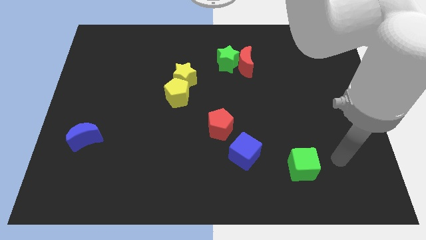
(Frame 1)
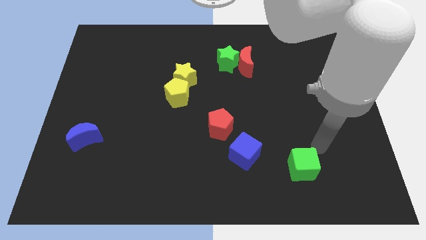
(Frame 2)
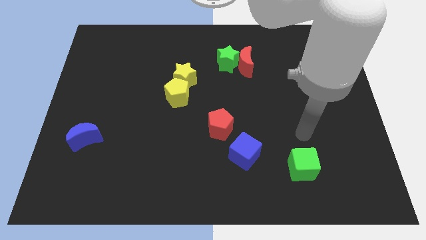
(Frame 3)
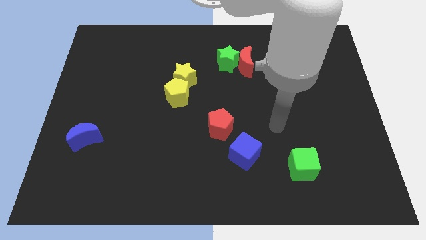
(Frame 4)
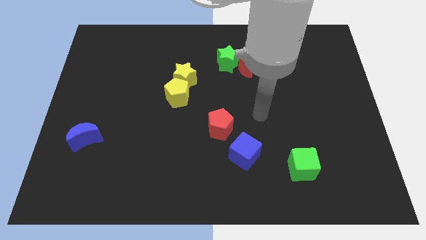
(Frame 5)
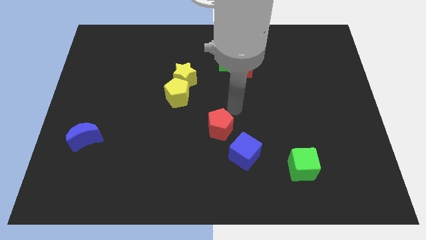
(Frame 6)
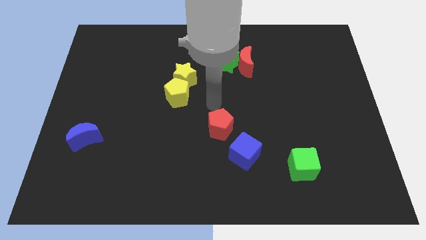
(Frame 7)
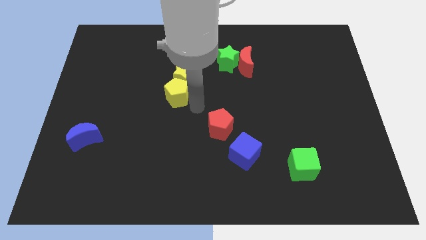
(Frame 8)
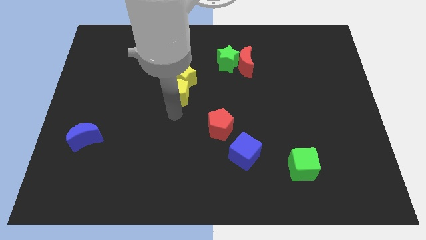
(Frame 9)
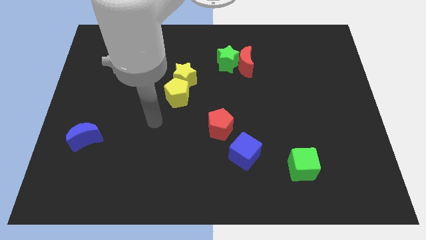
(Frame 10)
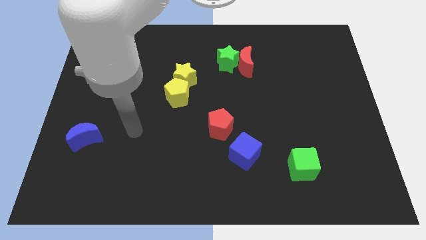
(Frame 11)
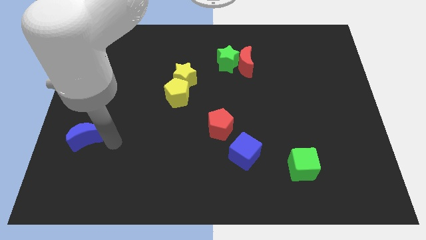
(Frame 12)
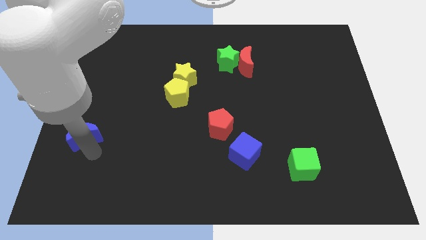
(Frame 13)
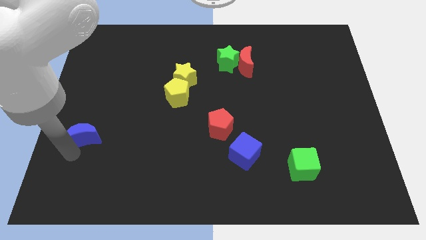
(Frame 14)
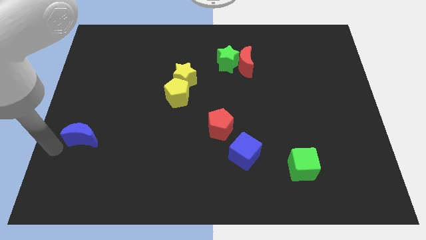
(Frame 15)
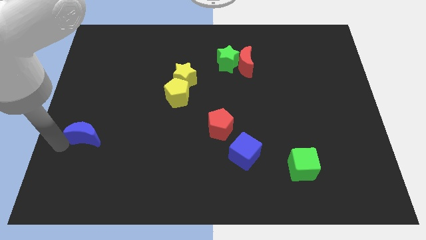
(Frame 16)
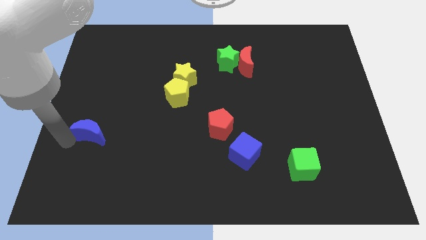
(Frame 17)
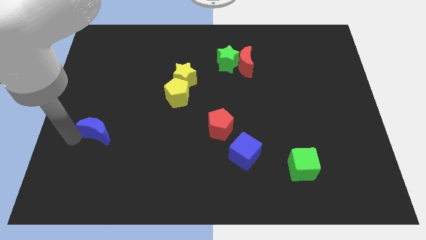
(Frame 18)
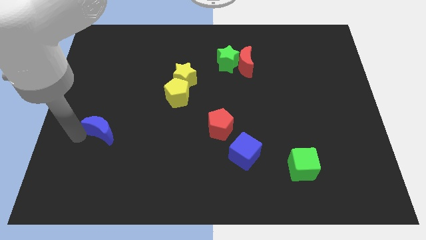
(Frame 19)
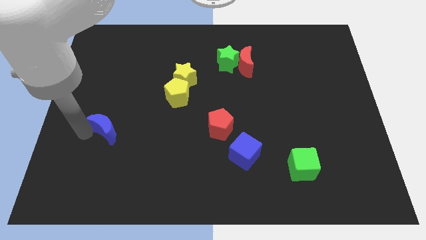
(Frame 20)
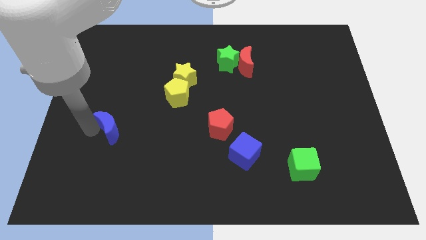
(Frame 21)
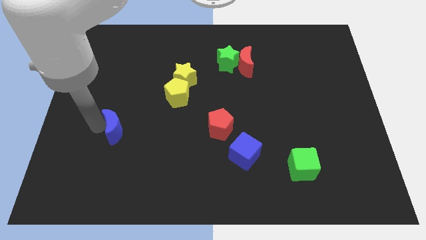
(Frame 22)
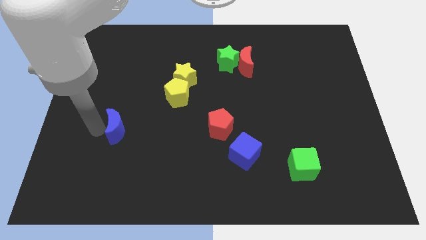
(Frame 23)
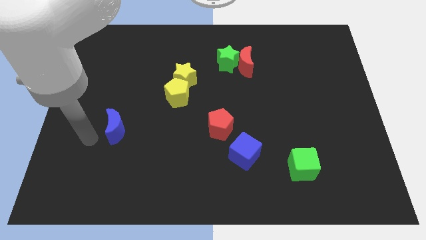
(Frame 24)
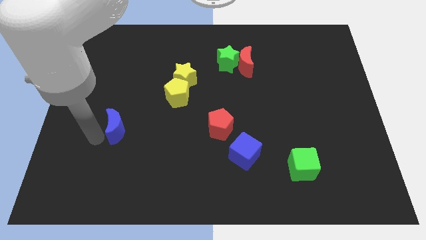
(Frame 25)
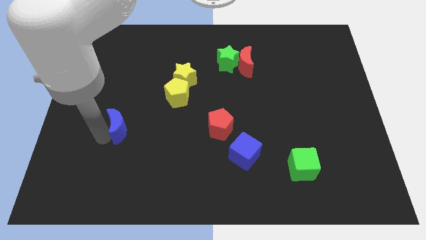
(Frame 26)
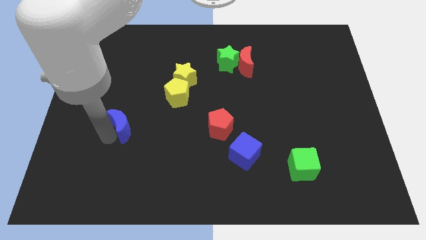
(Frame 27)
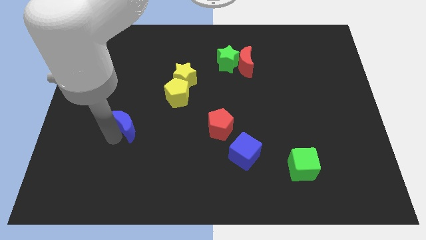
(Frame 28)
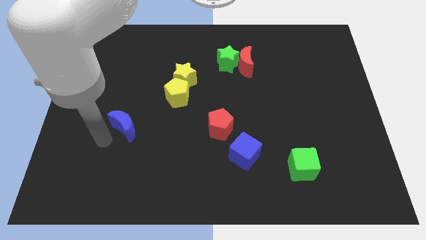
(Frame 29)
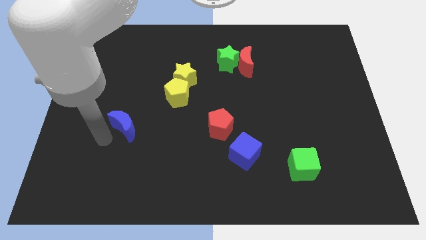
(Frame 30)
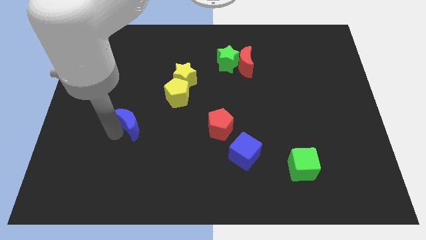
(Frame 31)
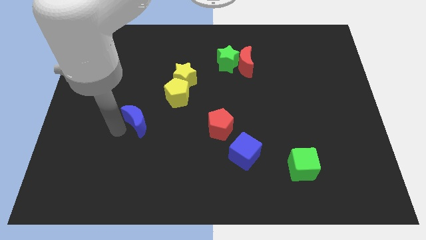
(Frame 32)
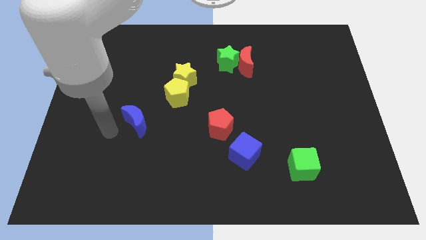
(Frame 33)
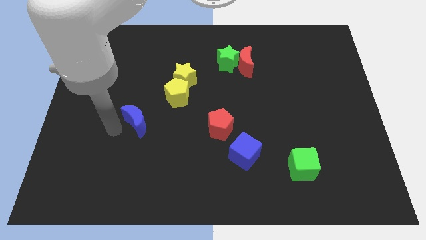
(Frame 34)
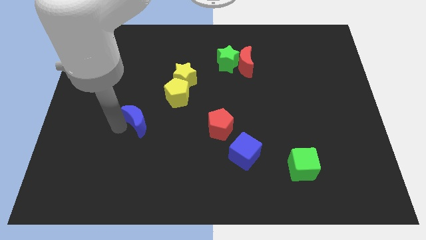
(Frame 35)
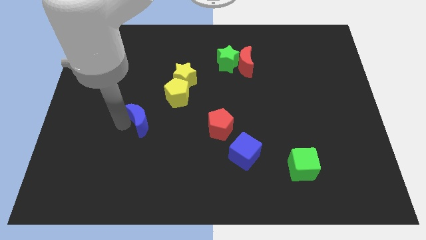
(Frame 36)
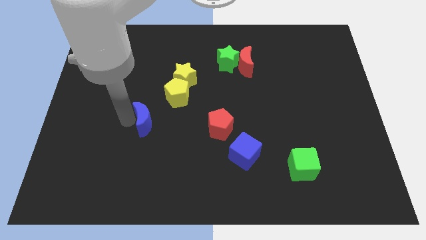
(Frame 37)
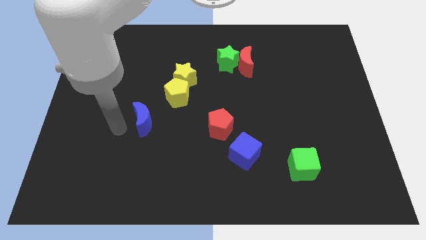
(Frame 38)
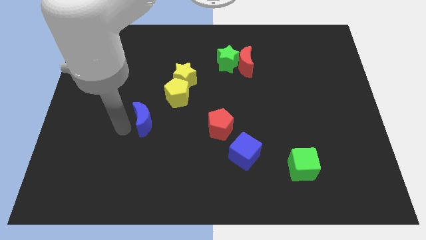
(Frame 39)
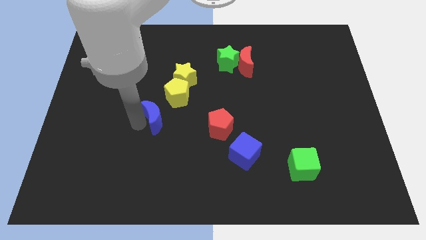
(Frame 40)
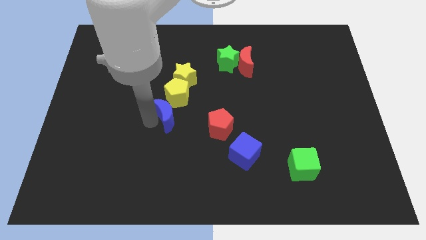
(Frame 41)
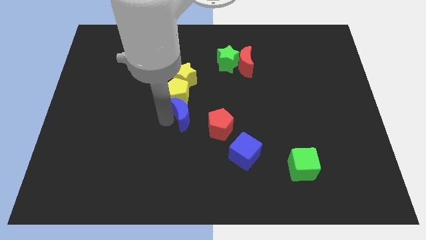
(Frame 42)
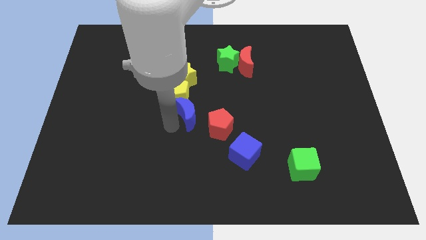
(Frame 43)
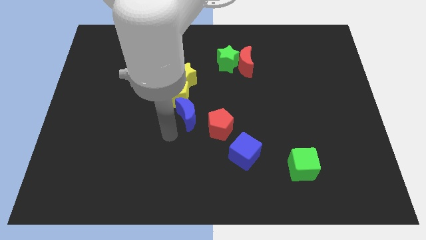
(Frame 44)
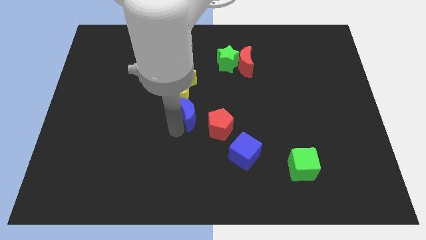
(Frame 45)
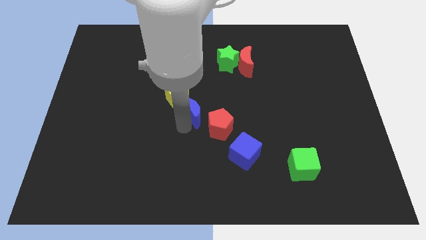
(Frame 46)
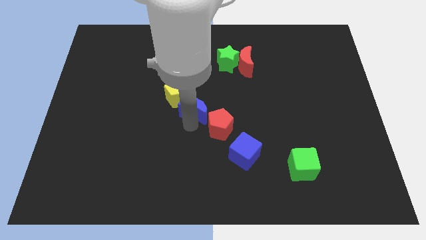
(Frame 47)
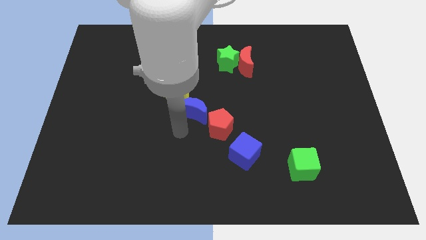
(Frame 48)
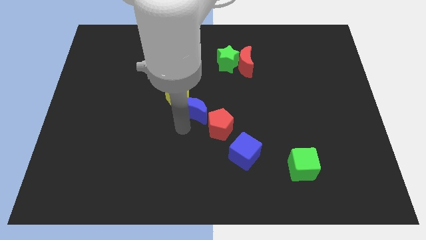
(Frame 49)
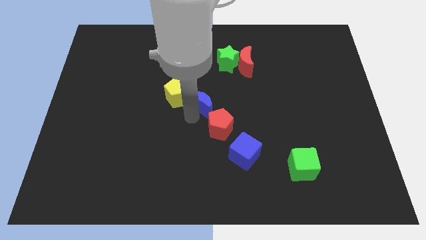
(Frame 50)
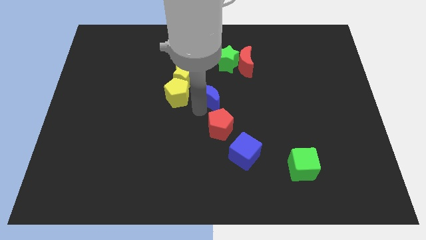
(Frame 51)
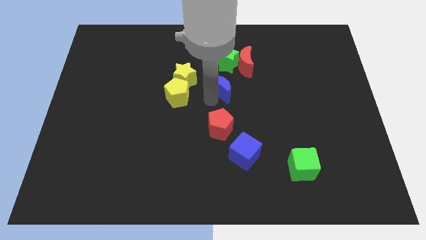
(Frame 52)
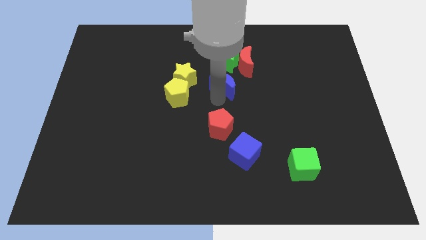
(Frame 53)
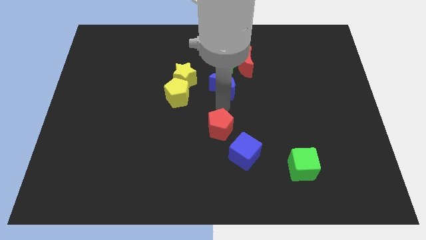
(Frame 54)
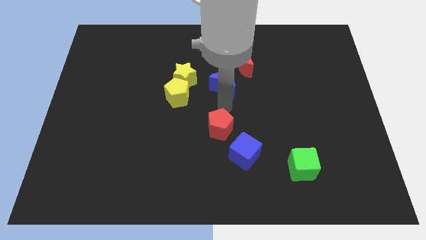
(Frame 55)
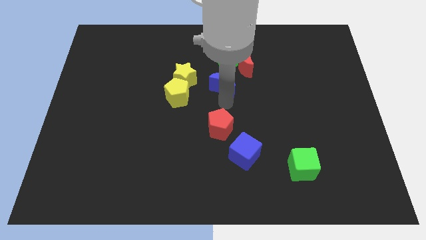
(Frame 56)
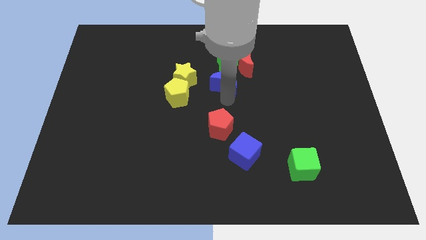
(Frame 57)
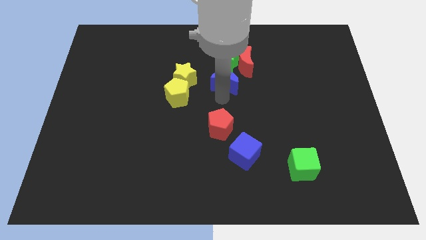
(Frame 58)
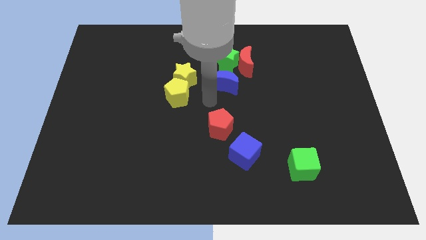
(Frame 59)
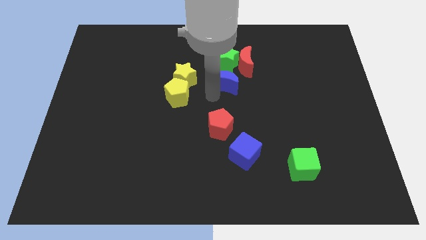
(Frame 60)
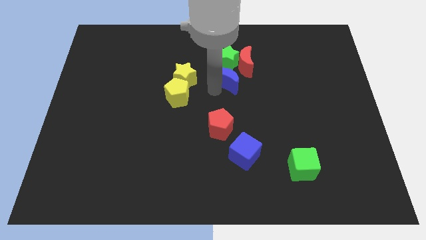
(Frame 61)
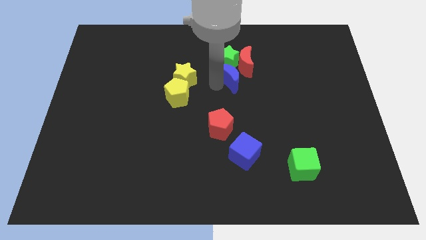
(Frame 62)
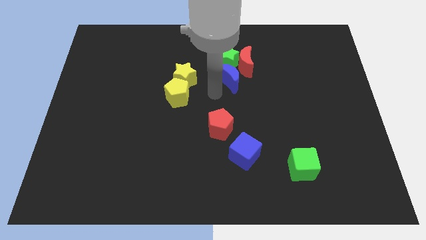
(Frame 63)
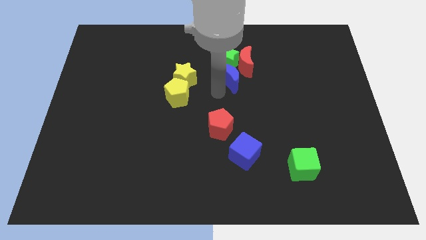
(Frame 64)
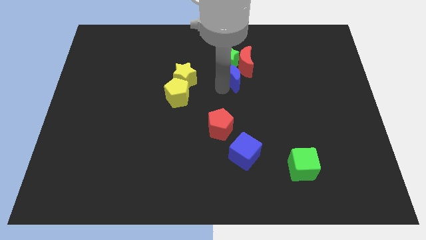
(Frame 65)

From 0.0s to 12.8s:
put the blue moon to the red moon

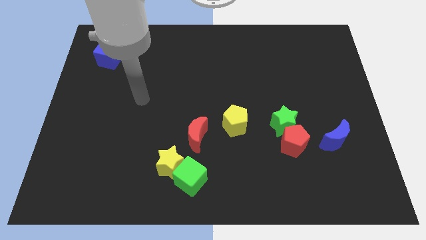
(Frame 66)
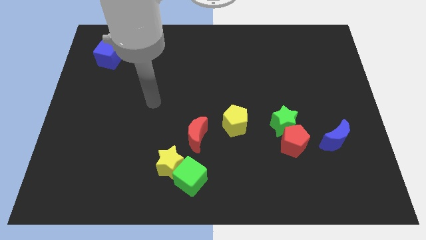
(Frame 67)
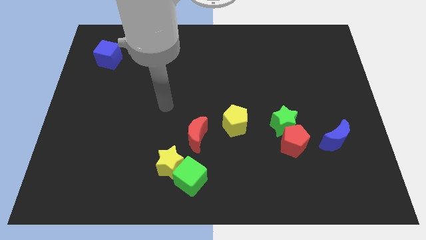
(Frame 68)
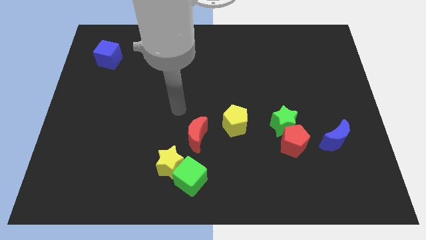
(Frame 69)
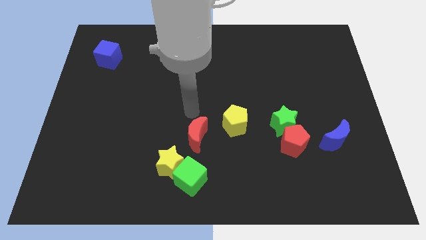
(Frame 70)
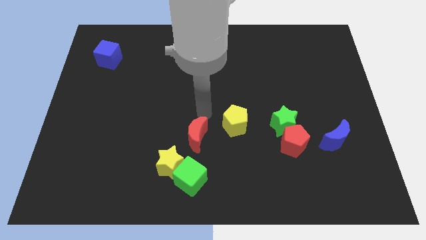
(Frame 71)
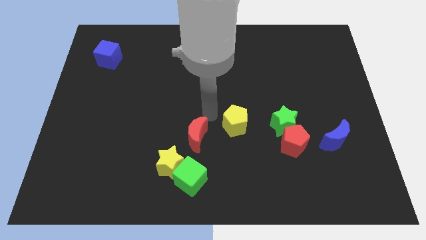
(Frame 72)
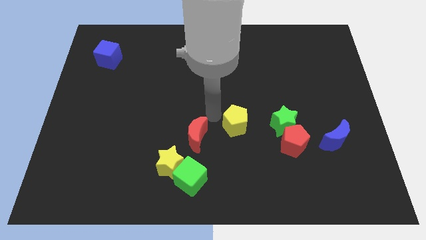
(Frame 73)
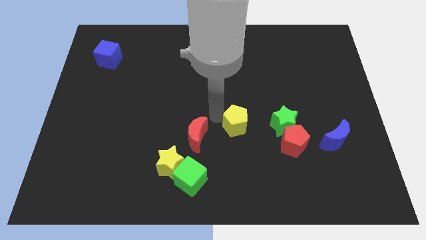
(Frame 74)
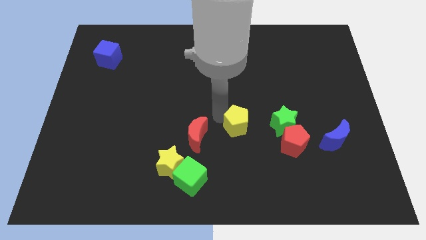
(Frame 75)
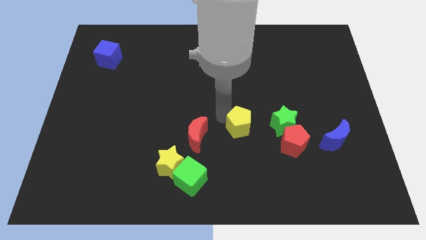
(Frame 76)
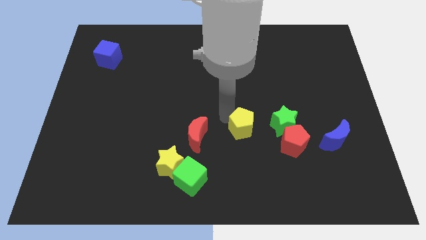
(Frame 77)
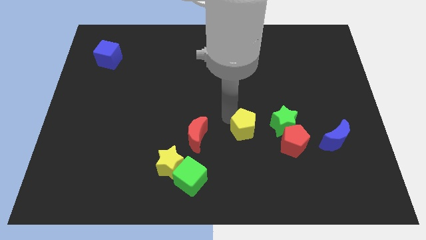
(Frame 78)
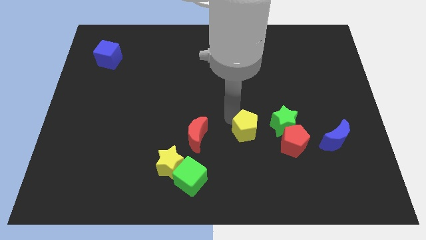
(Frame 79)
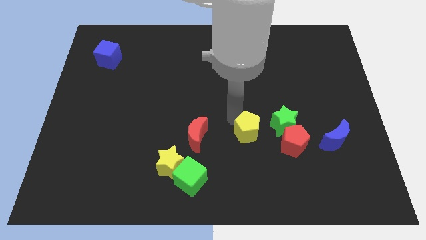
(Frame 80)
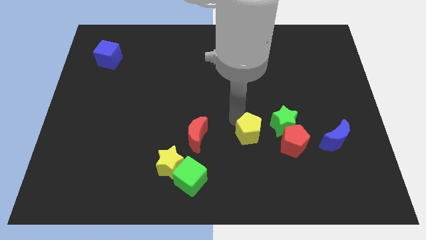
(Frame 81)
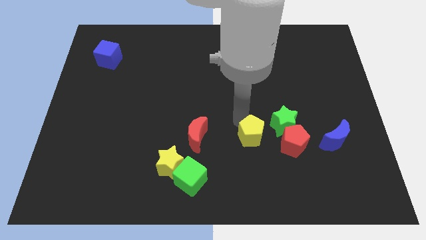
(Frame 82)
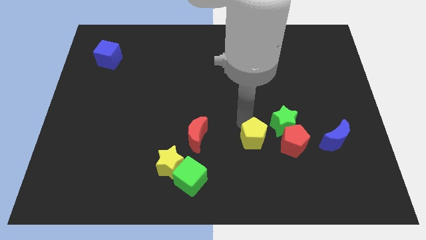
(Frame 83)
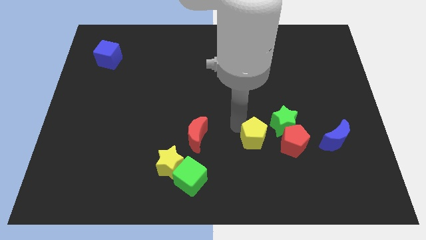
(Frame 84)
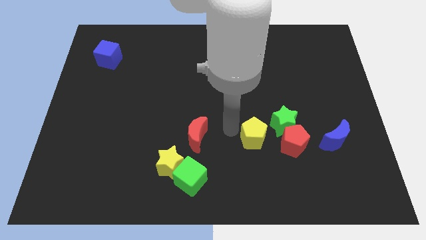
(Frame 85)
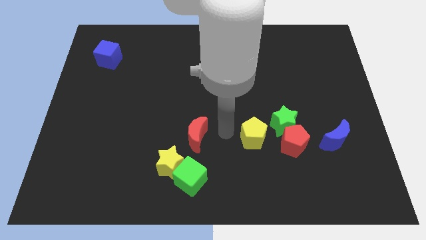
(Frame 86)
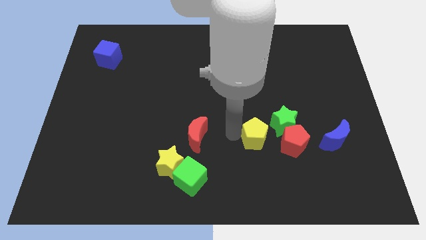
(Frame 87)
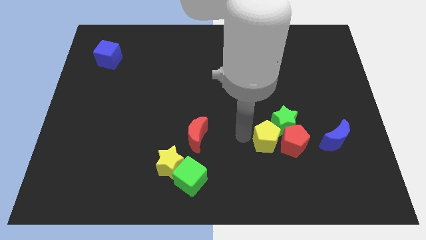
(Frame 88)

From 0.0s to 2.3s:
move the yellow pentagon to the red pentagon
